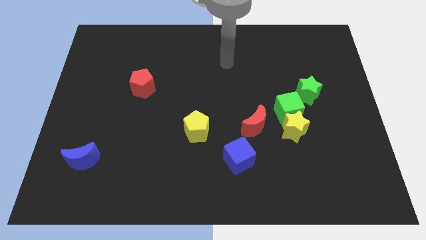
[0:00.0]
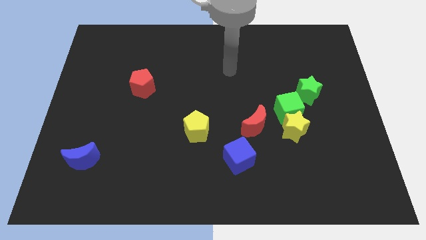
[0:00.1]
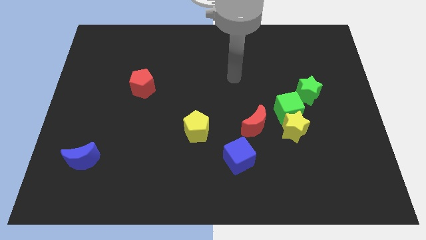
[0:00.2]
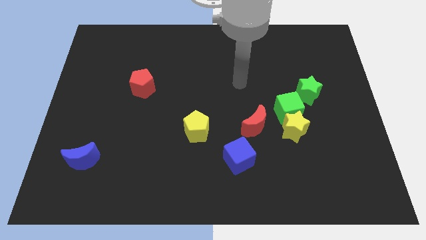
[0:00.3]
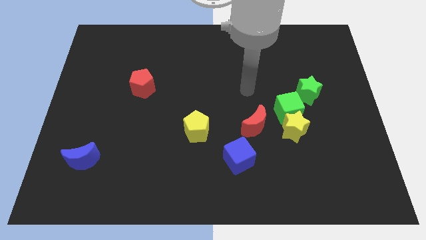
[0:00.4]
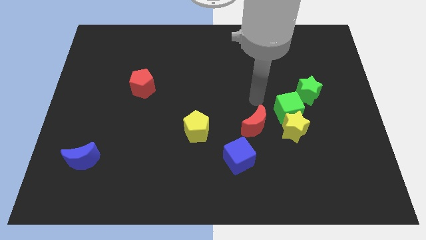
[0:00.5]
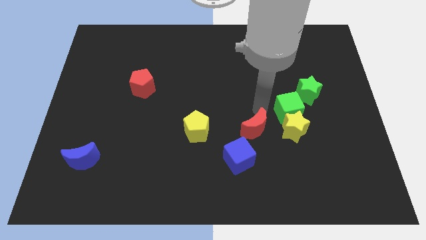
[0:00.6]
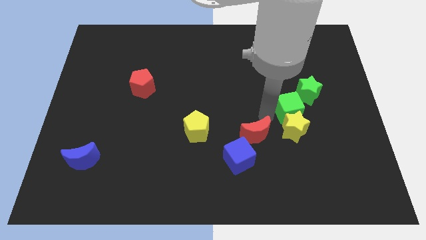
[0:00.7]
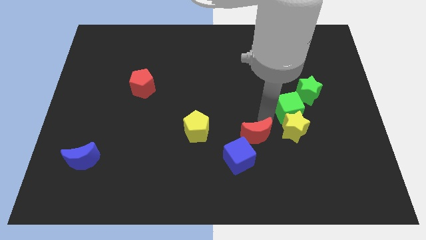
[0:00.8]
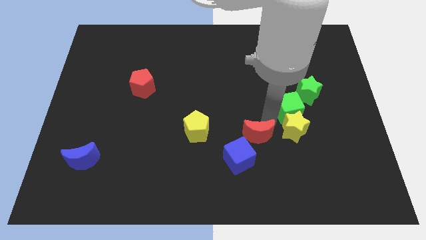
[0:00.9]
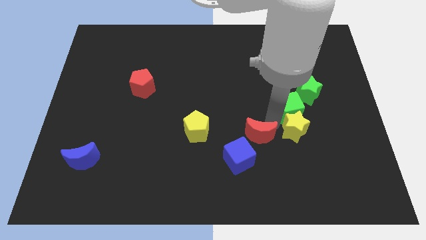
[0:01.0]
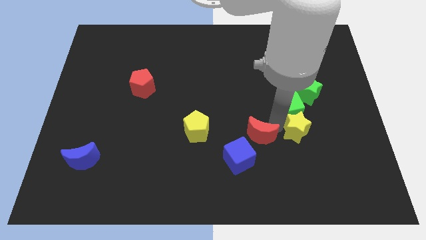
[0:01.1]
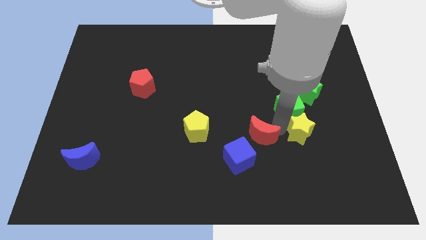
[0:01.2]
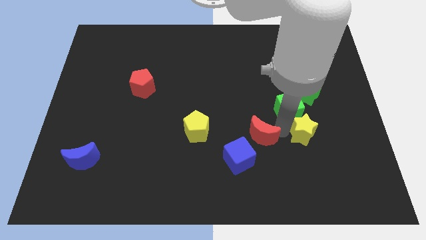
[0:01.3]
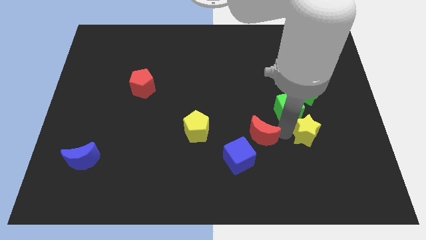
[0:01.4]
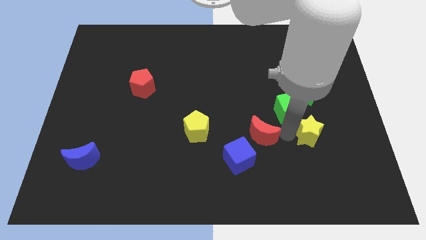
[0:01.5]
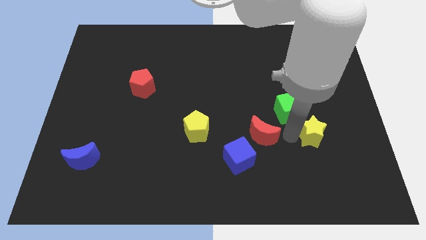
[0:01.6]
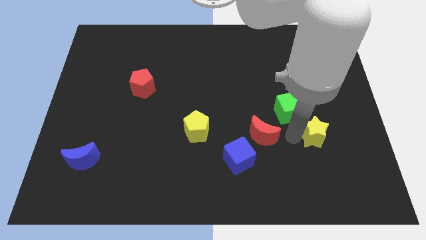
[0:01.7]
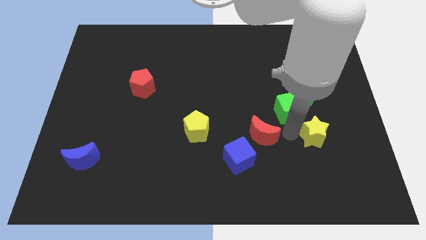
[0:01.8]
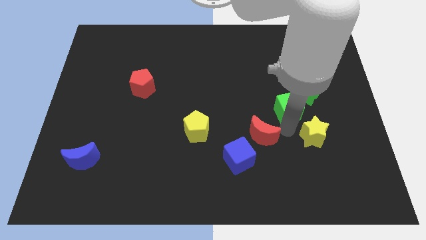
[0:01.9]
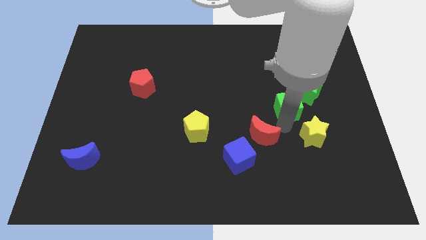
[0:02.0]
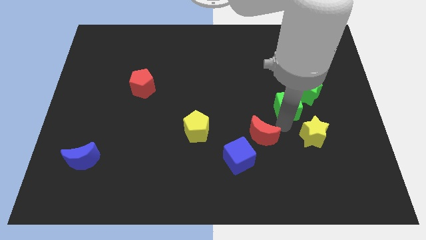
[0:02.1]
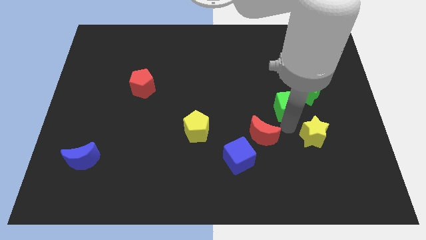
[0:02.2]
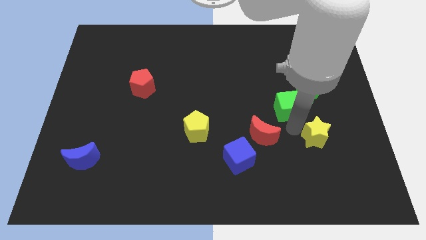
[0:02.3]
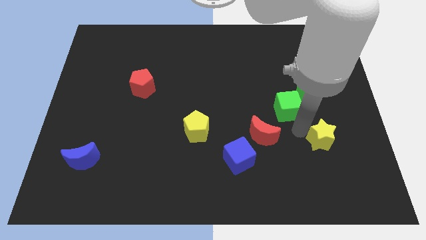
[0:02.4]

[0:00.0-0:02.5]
pull the yellow star apart from the green cube and red moon

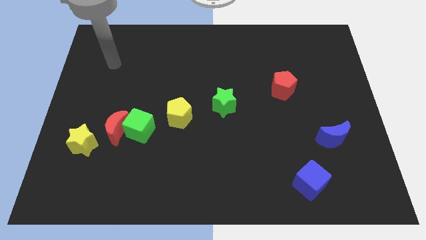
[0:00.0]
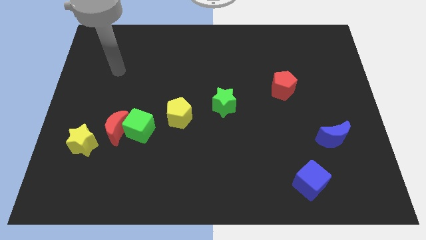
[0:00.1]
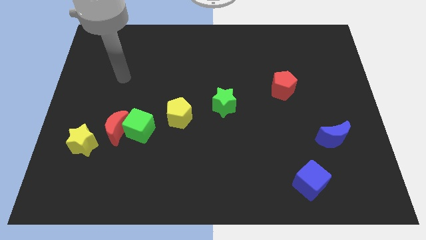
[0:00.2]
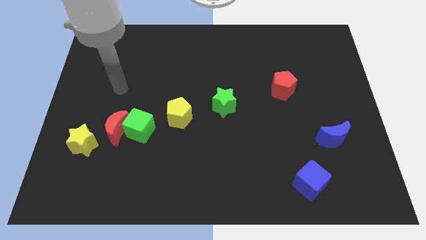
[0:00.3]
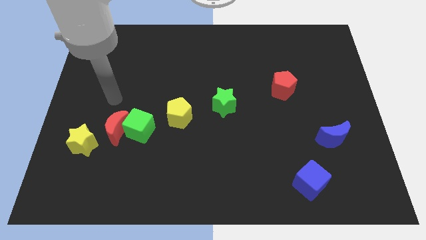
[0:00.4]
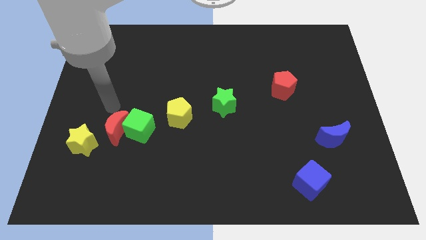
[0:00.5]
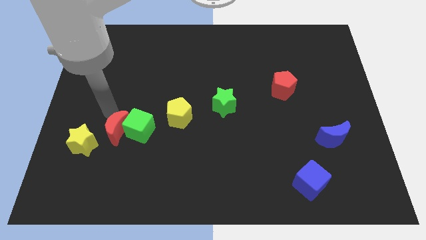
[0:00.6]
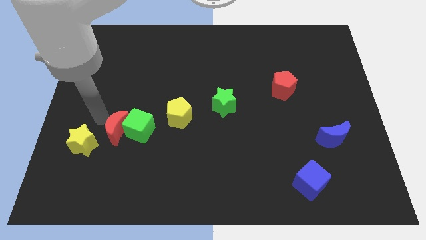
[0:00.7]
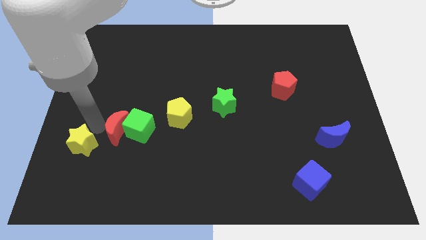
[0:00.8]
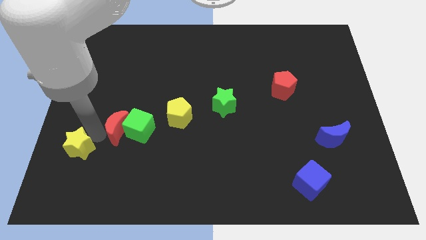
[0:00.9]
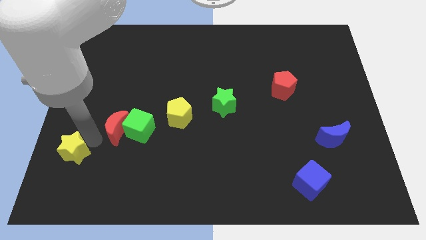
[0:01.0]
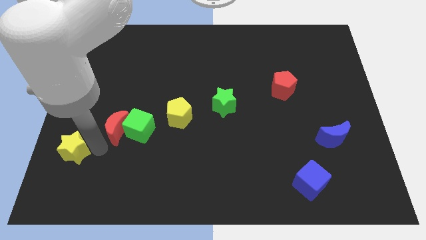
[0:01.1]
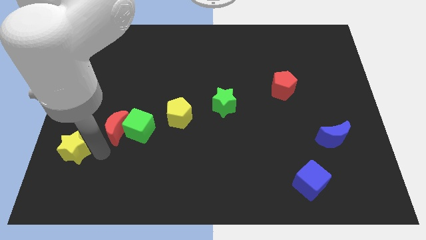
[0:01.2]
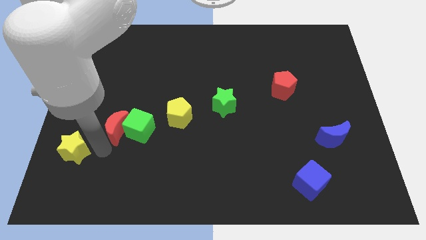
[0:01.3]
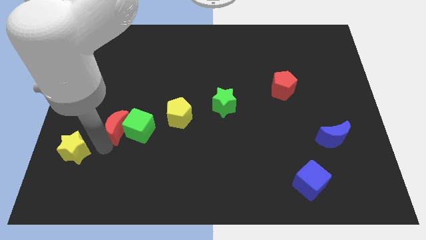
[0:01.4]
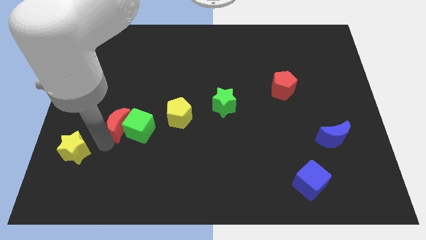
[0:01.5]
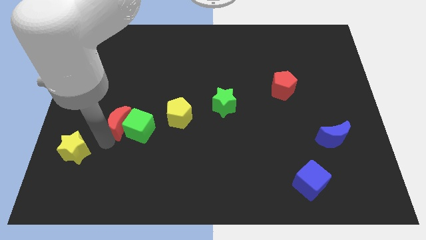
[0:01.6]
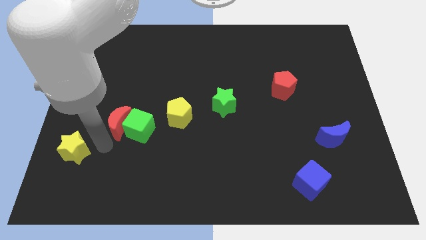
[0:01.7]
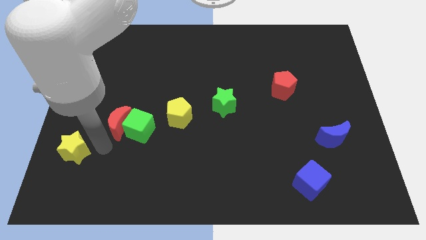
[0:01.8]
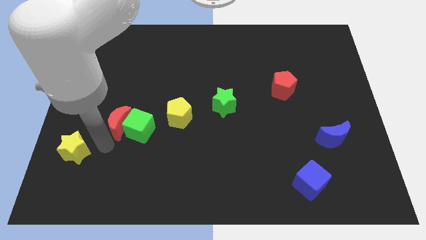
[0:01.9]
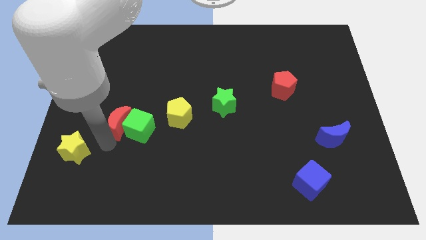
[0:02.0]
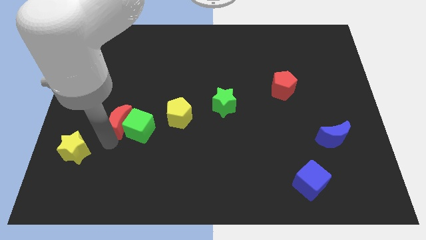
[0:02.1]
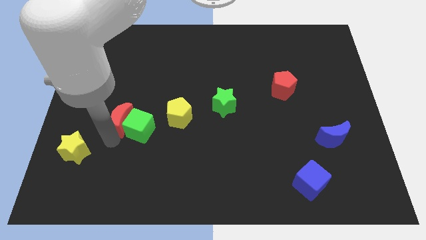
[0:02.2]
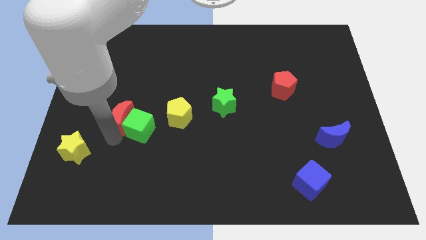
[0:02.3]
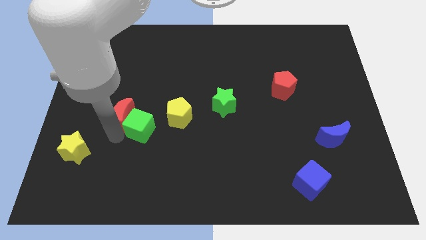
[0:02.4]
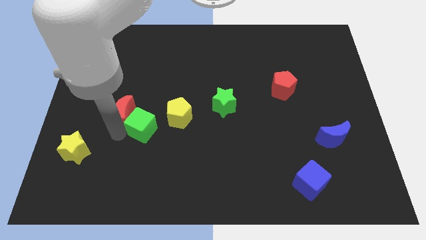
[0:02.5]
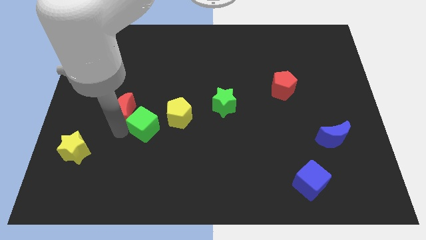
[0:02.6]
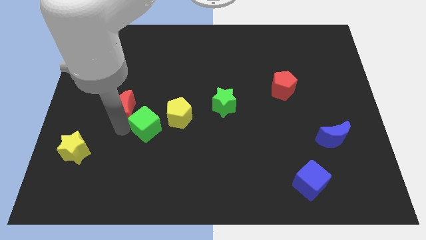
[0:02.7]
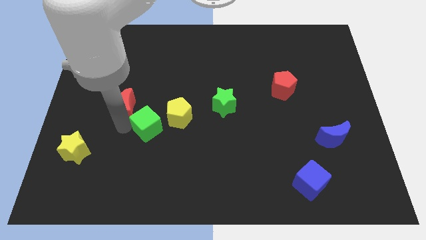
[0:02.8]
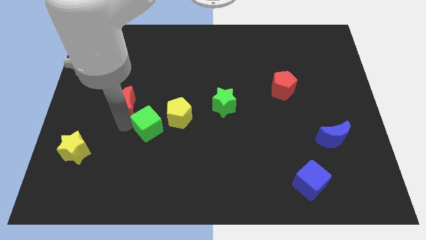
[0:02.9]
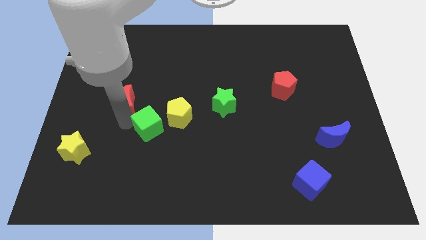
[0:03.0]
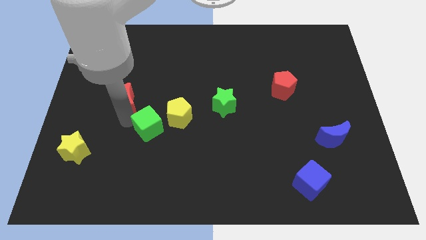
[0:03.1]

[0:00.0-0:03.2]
pull the red moon apart from the green cube and yellow star

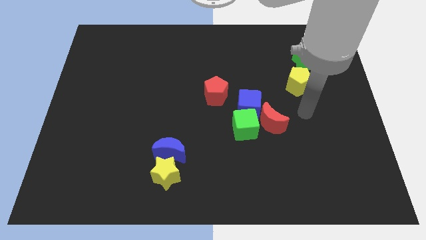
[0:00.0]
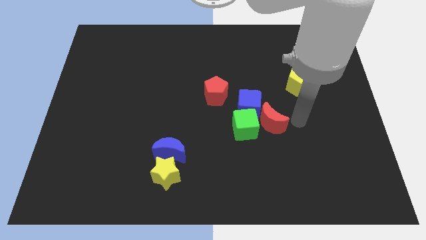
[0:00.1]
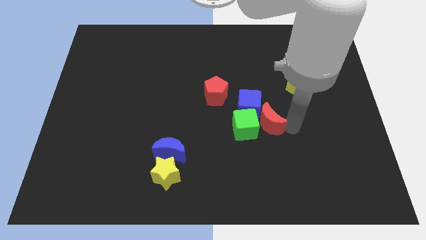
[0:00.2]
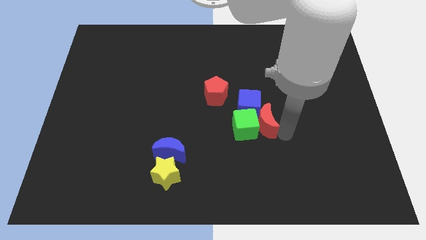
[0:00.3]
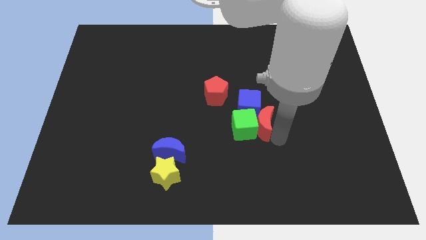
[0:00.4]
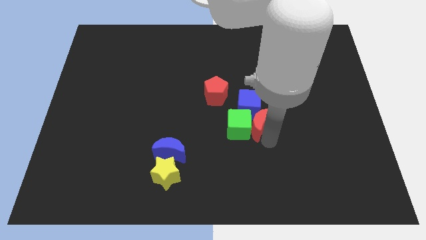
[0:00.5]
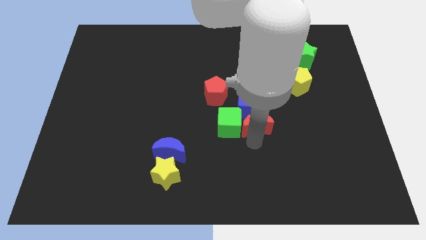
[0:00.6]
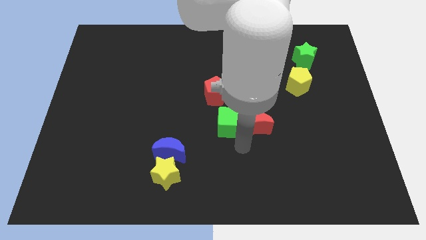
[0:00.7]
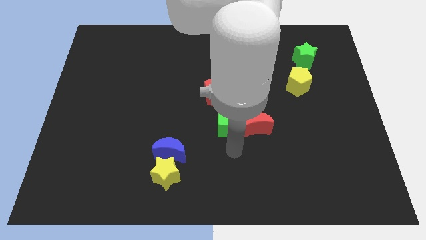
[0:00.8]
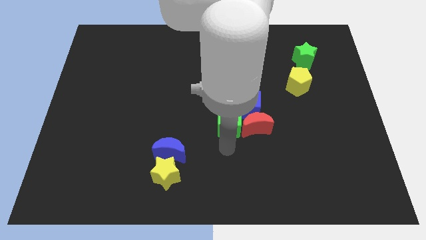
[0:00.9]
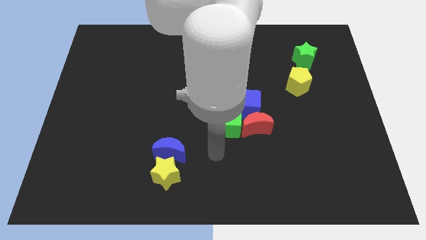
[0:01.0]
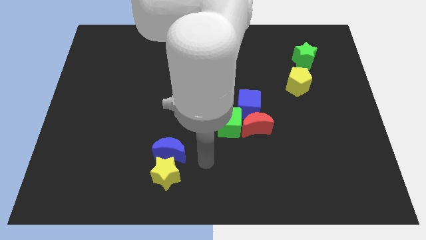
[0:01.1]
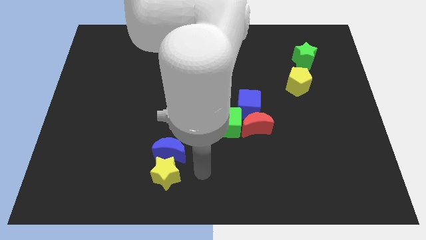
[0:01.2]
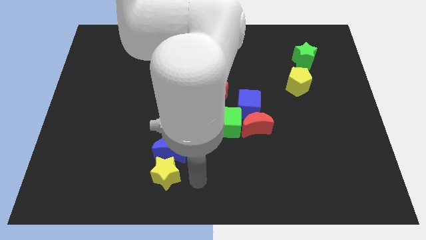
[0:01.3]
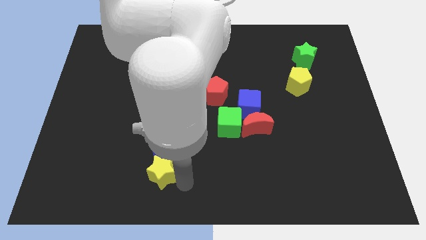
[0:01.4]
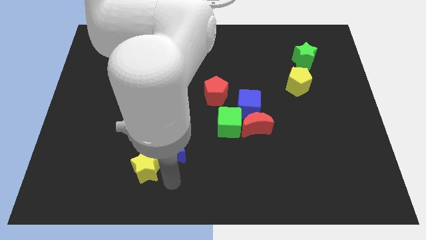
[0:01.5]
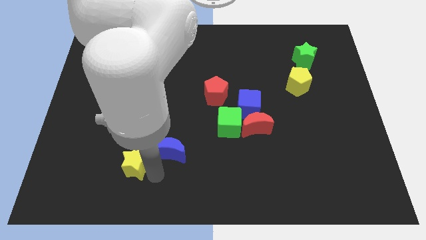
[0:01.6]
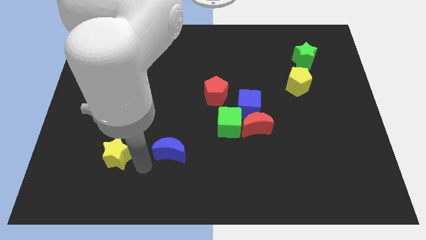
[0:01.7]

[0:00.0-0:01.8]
pull the blue moon apart from the yellow star

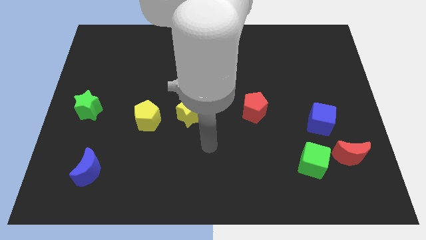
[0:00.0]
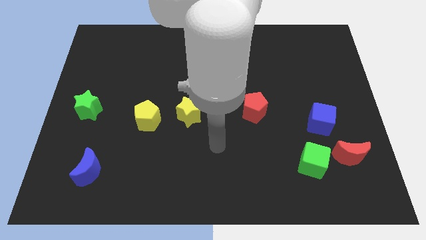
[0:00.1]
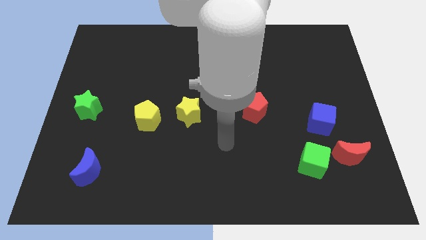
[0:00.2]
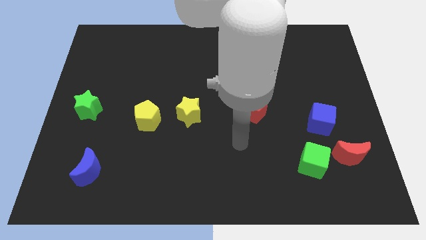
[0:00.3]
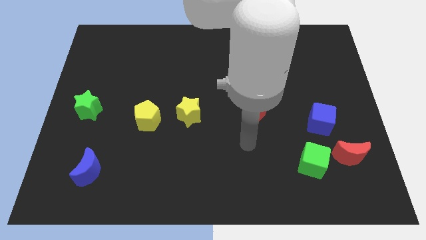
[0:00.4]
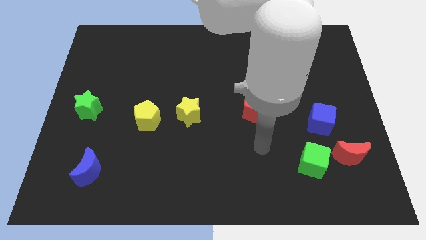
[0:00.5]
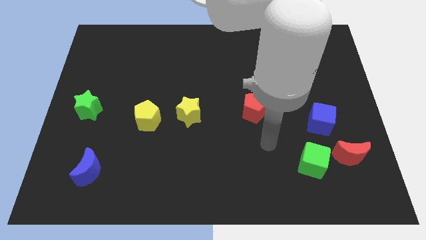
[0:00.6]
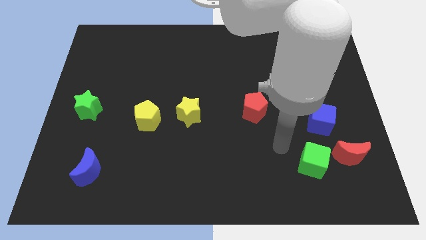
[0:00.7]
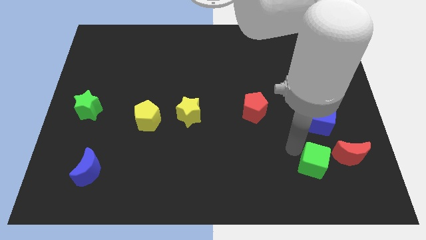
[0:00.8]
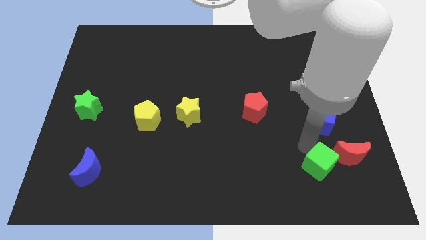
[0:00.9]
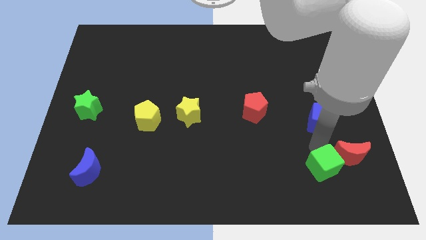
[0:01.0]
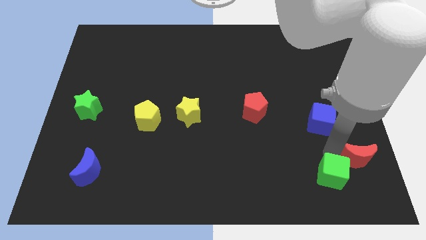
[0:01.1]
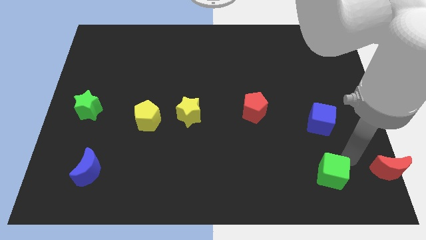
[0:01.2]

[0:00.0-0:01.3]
move the green cube away from the red moon

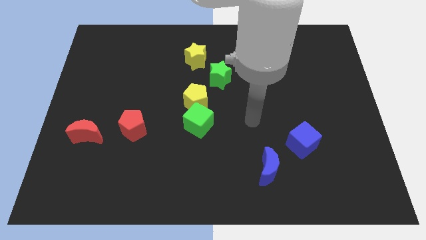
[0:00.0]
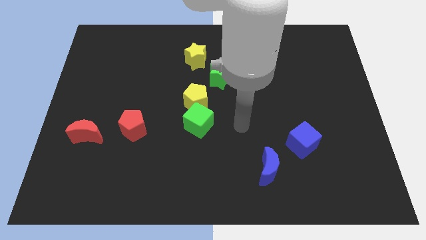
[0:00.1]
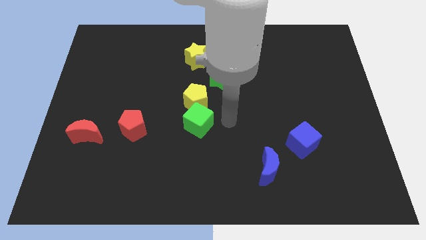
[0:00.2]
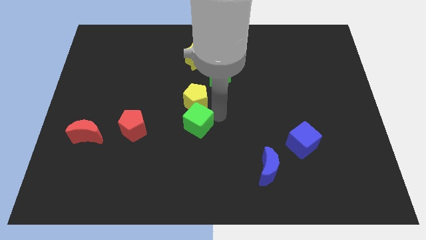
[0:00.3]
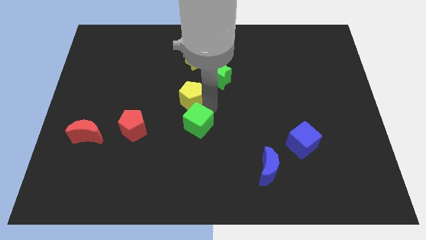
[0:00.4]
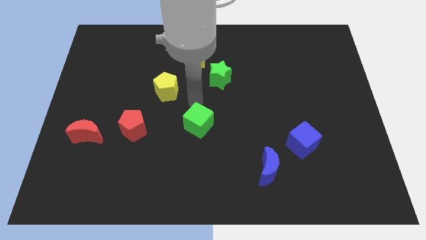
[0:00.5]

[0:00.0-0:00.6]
separate the green cube from the yellow pentagon
